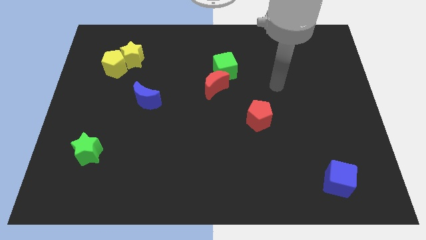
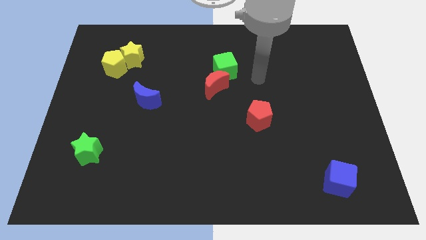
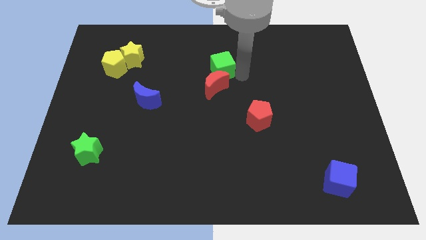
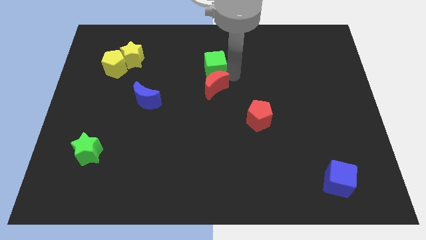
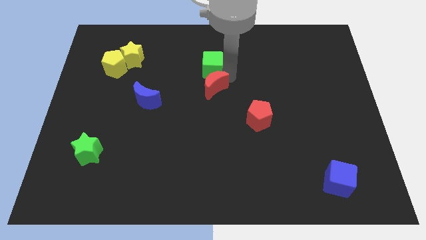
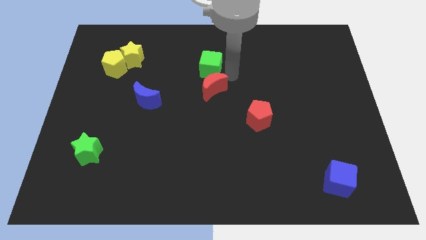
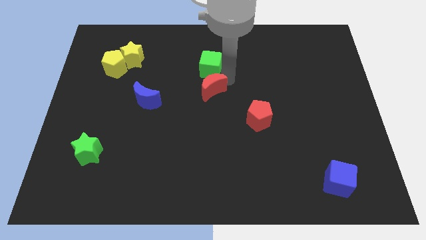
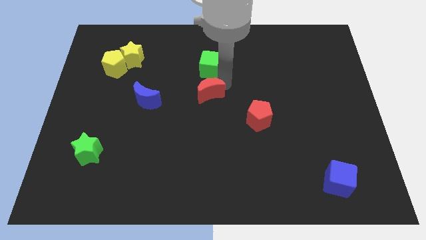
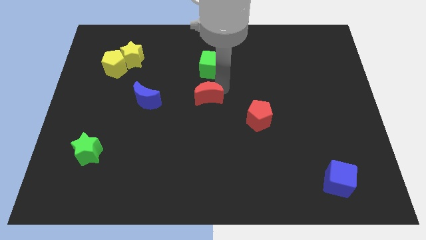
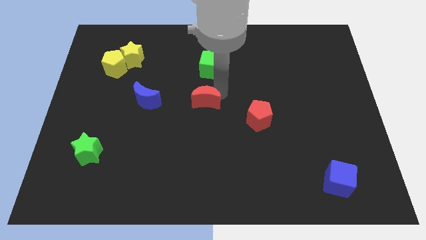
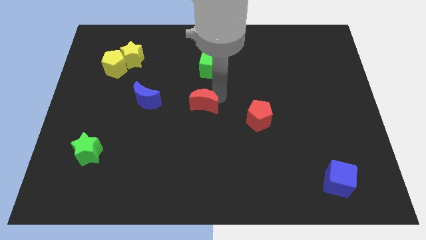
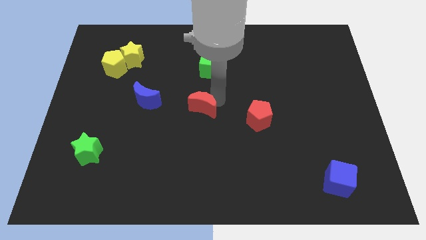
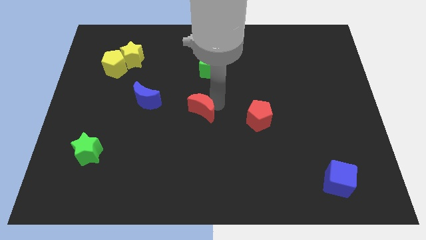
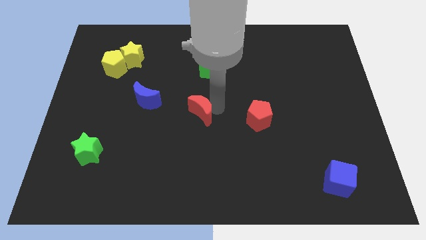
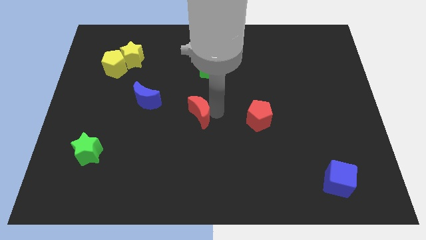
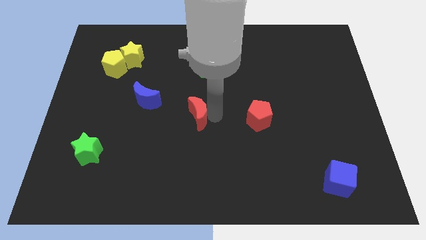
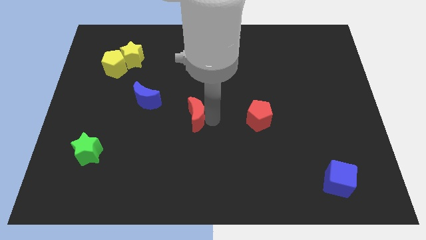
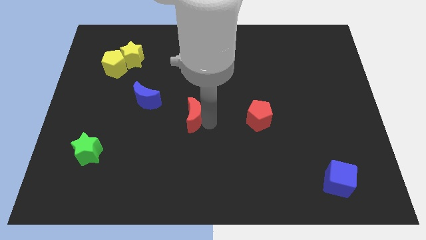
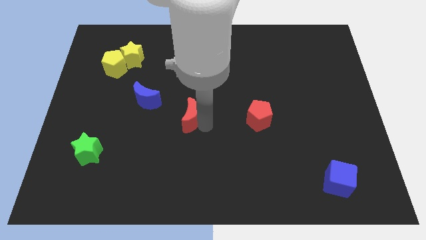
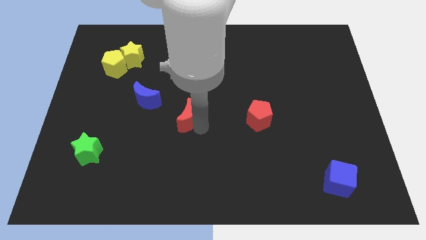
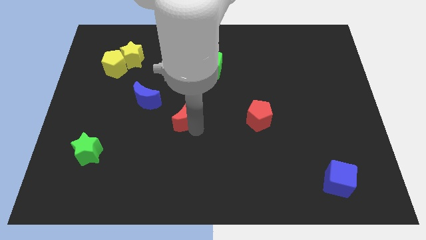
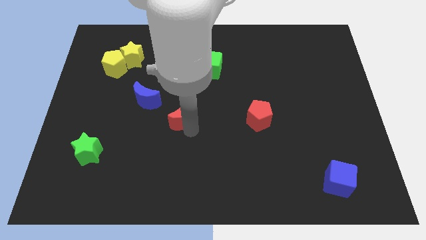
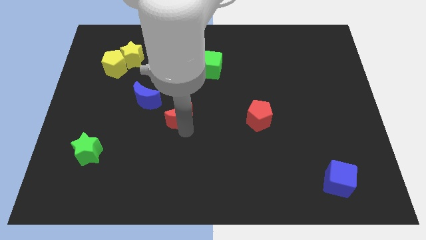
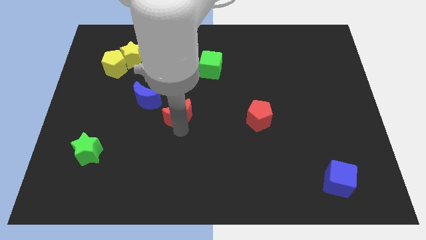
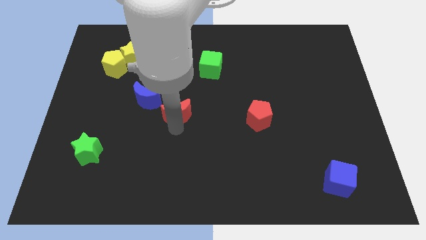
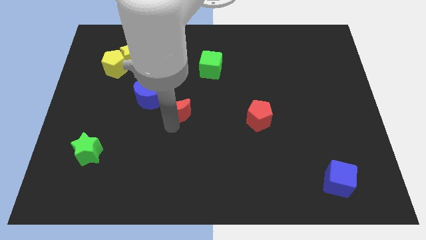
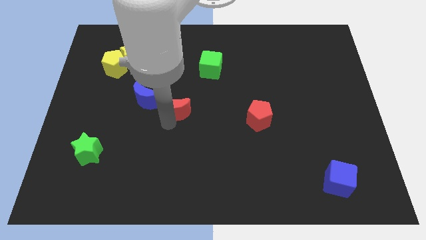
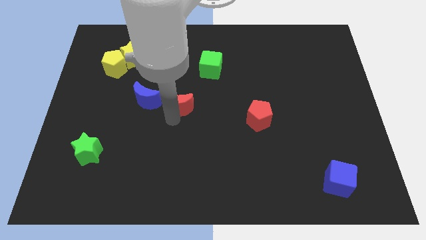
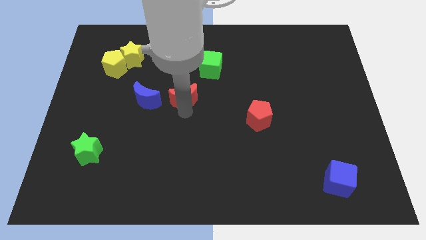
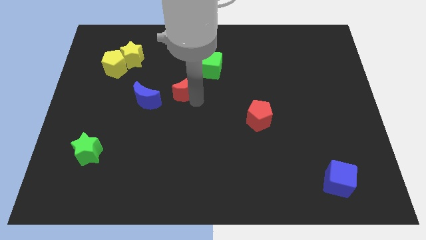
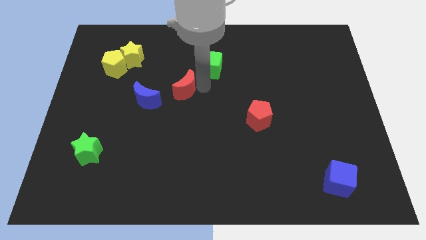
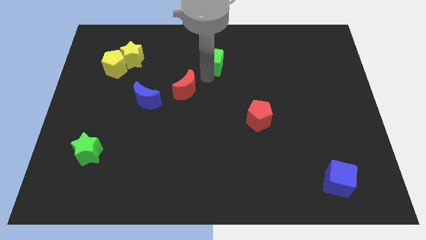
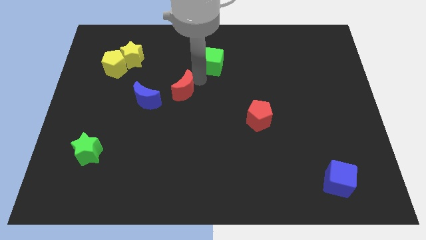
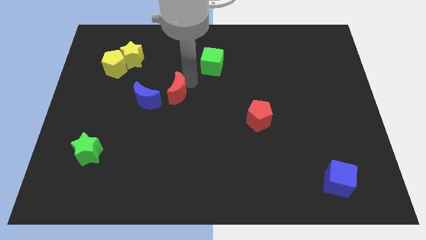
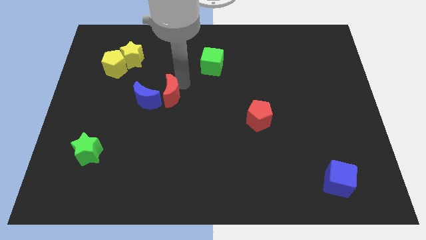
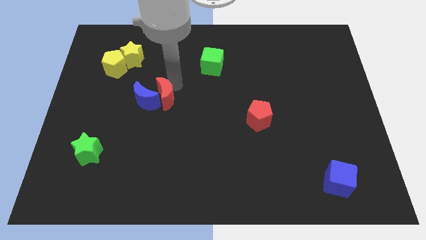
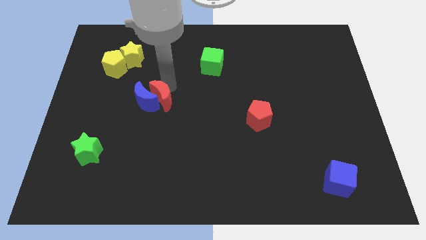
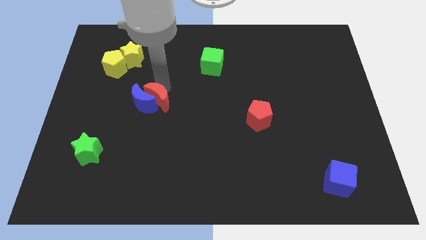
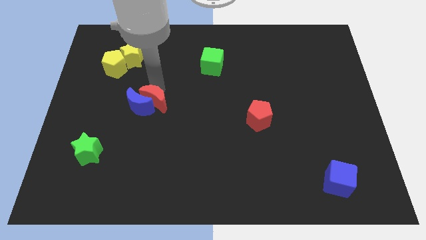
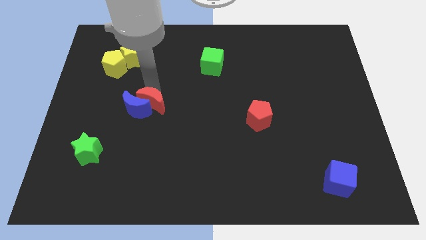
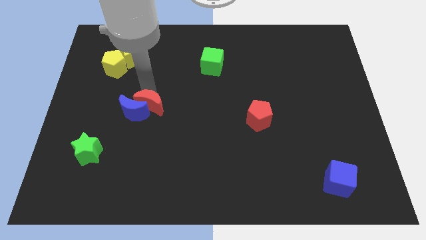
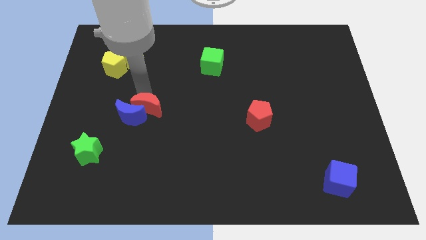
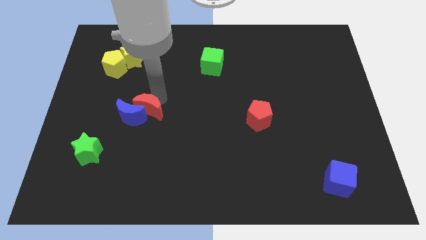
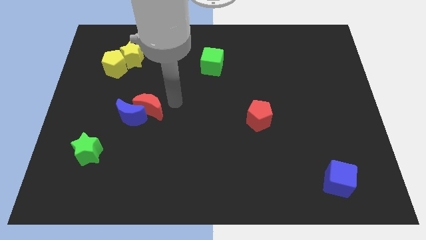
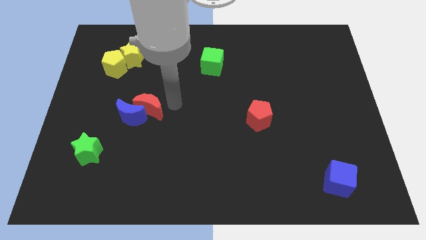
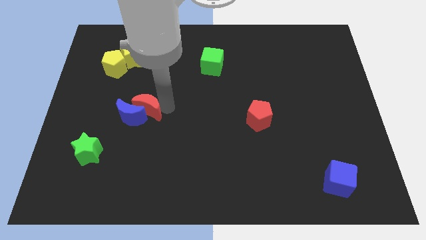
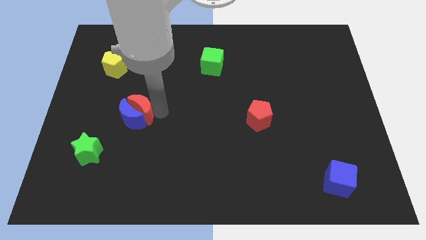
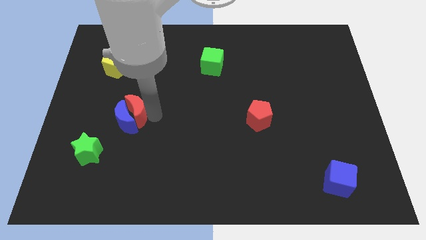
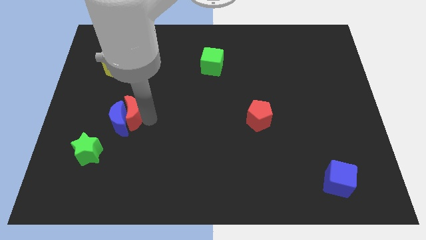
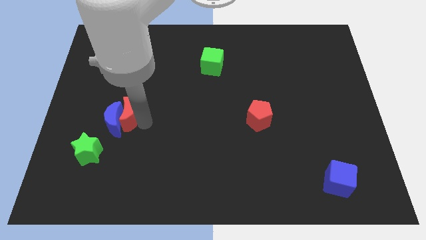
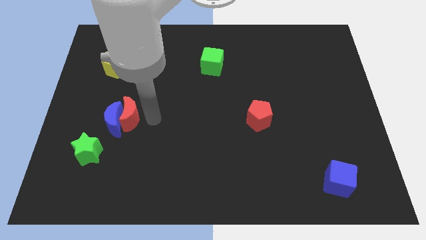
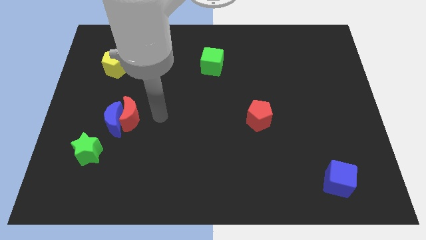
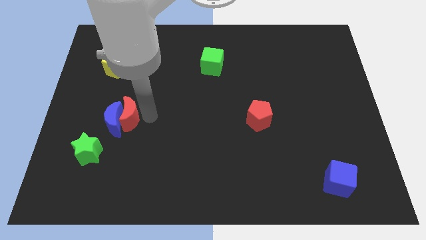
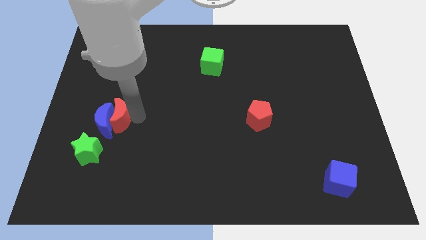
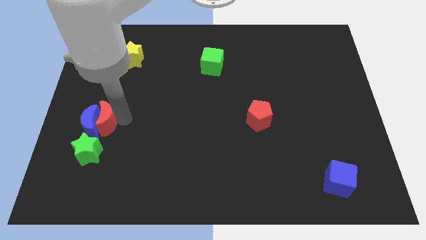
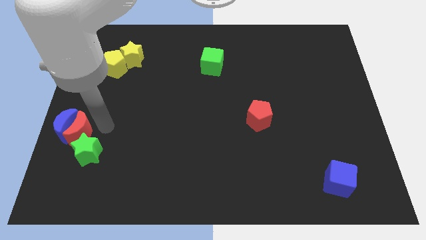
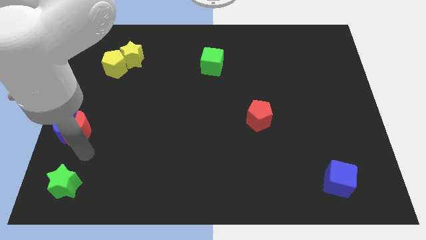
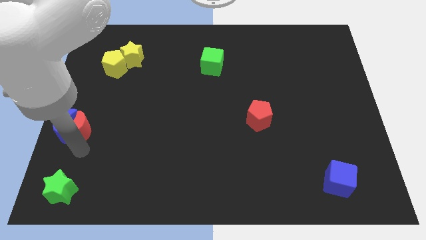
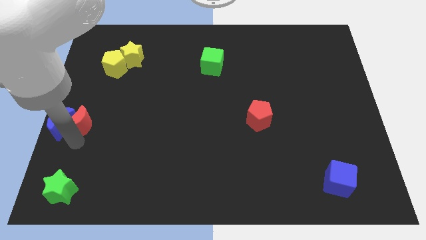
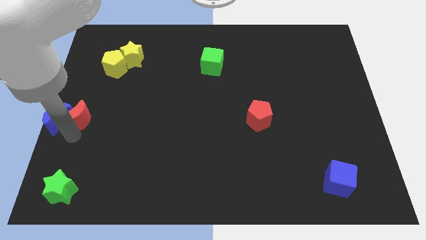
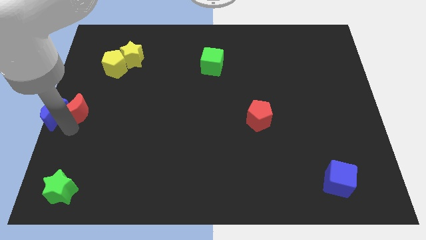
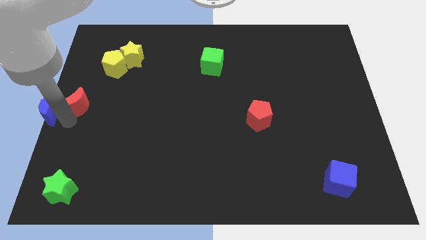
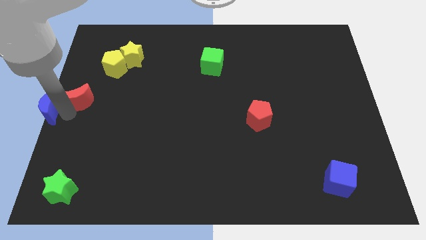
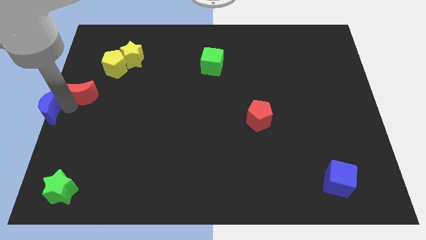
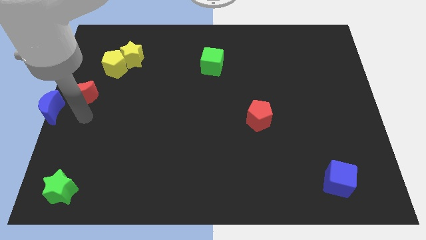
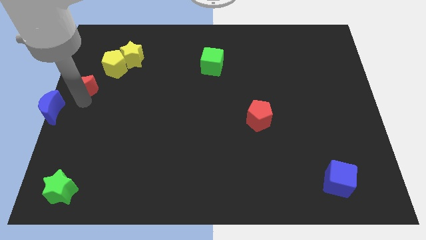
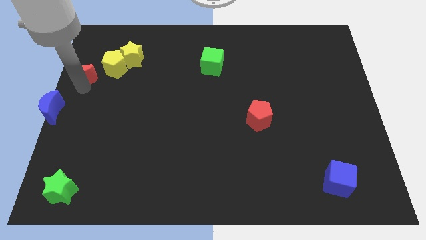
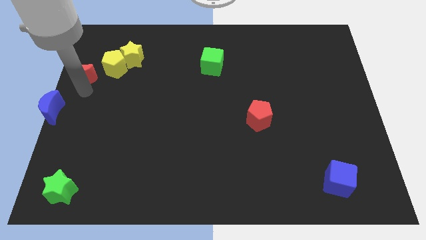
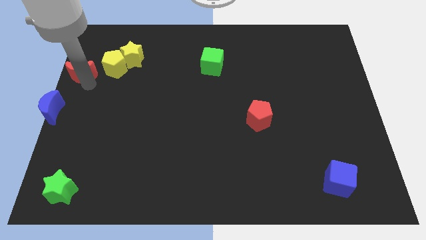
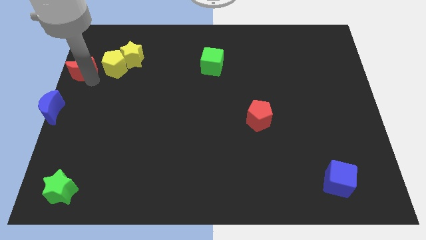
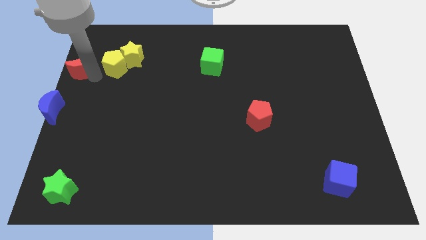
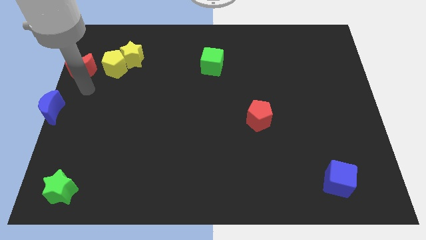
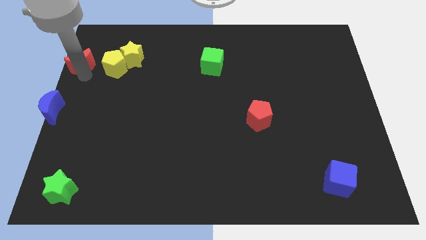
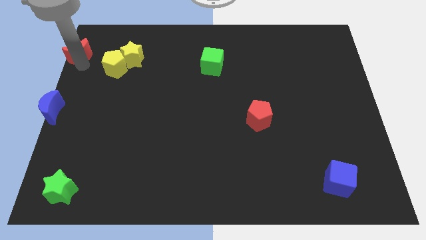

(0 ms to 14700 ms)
push the red moon to the top left of the board
